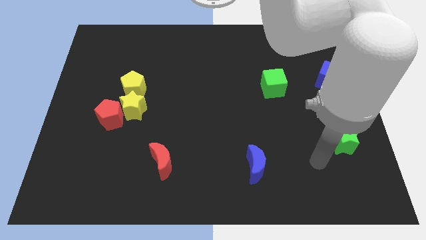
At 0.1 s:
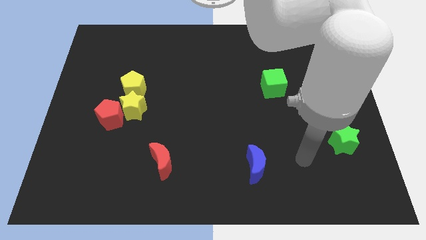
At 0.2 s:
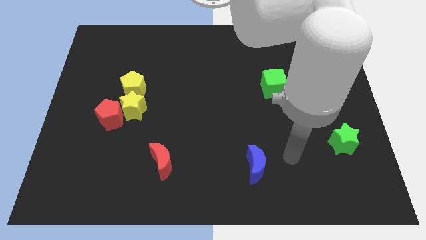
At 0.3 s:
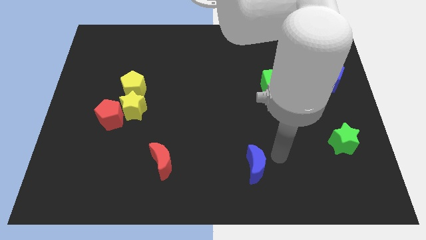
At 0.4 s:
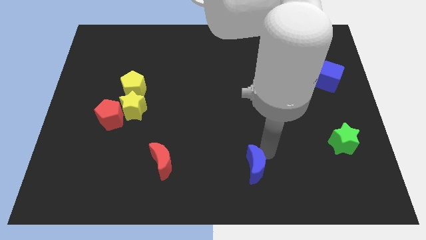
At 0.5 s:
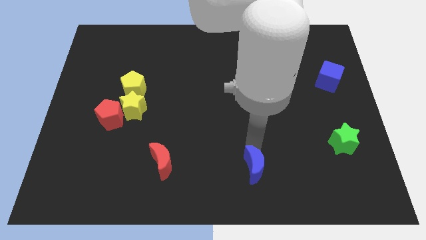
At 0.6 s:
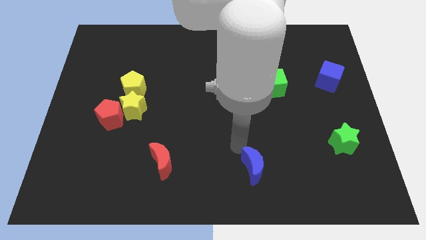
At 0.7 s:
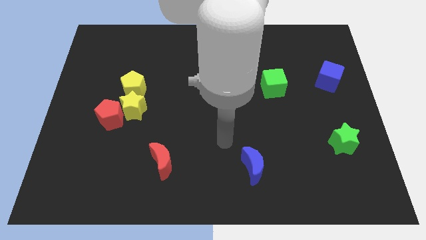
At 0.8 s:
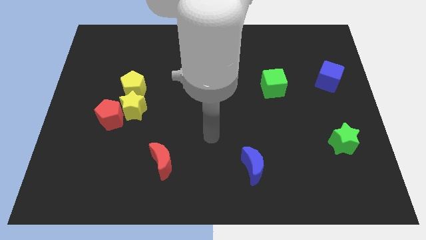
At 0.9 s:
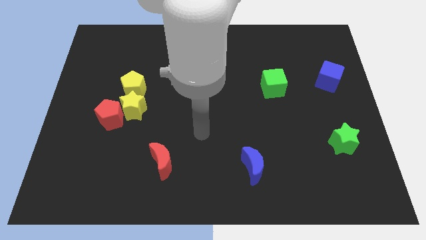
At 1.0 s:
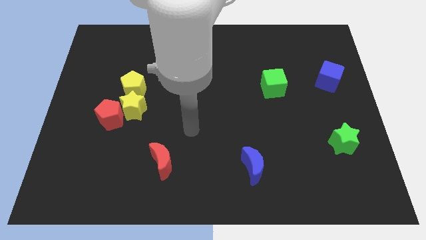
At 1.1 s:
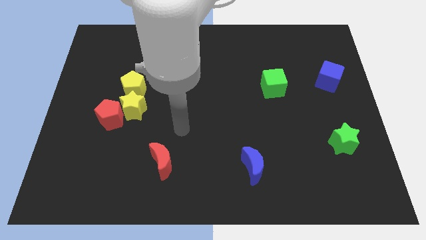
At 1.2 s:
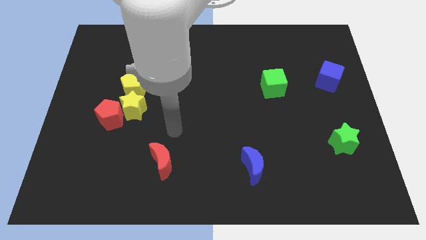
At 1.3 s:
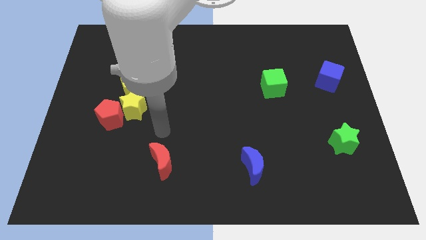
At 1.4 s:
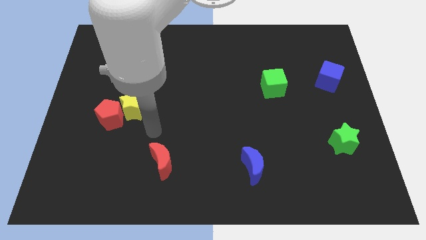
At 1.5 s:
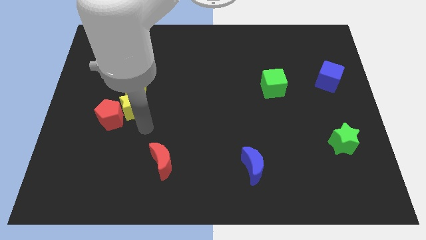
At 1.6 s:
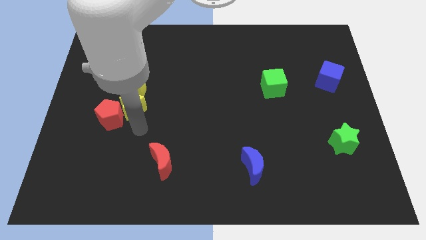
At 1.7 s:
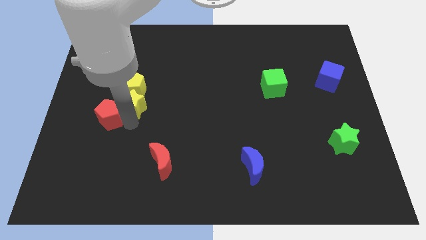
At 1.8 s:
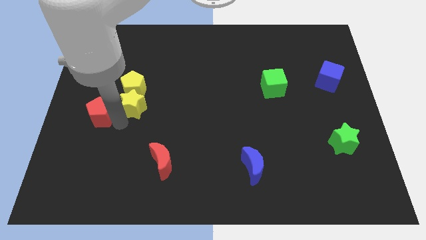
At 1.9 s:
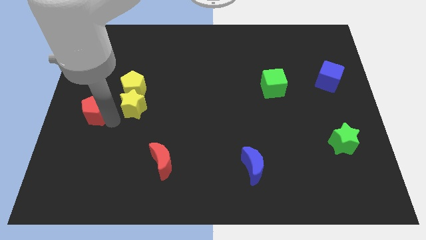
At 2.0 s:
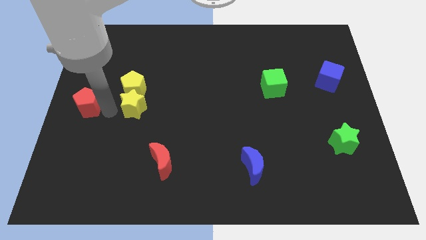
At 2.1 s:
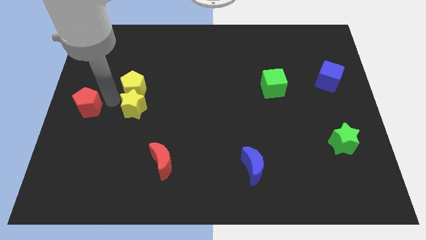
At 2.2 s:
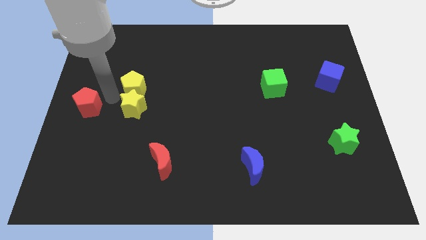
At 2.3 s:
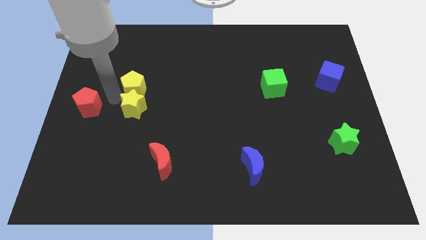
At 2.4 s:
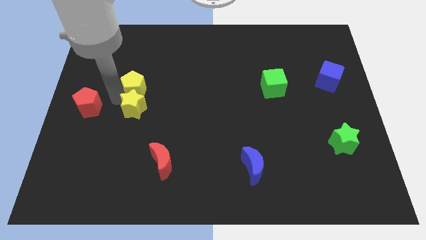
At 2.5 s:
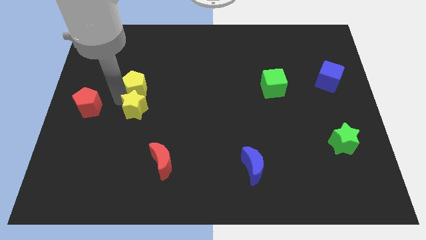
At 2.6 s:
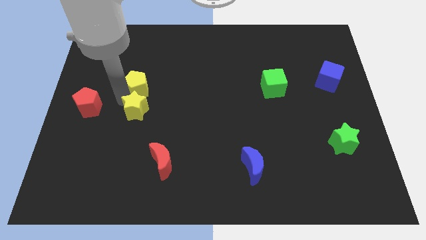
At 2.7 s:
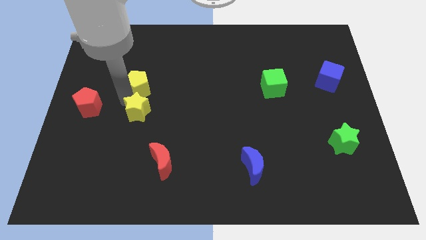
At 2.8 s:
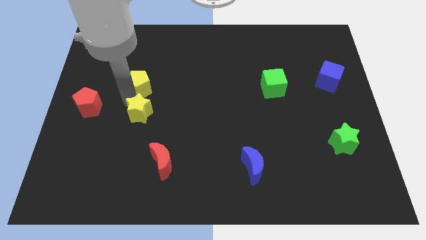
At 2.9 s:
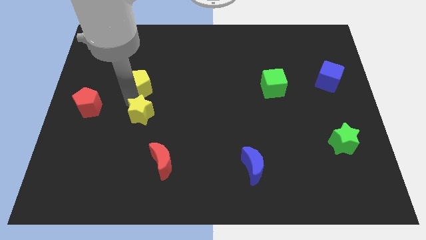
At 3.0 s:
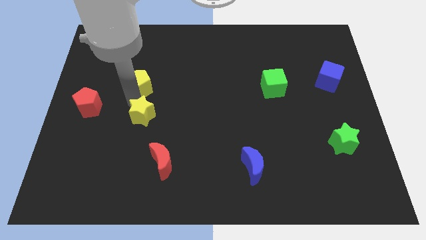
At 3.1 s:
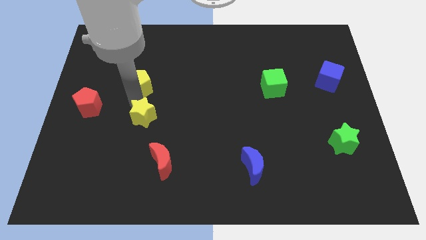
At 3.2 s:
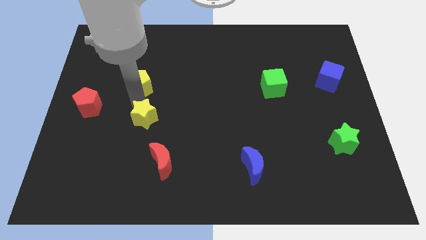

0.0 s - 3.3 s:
pull the yellow star apart from the red pentagon and yellow pentagon

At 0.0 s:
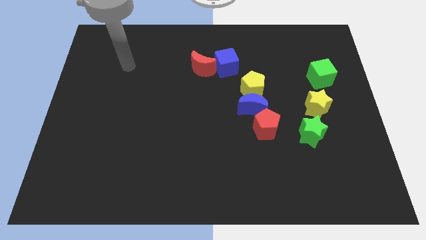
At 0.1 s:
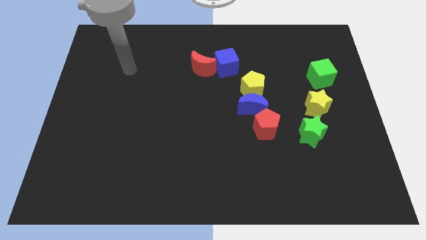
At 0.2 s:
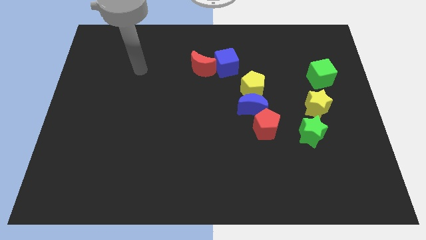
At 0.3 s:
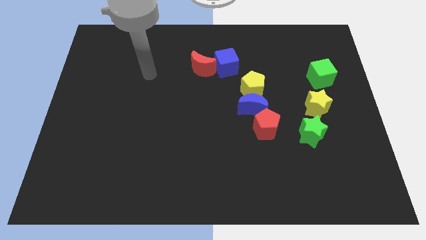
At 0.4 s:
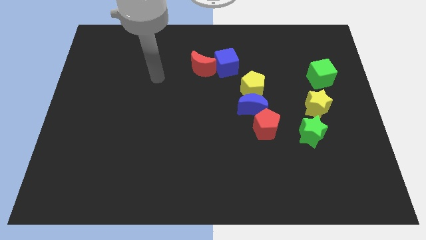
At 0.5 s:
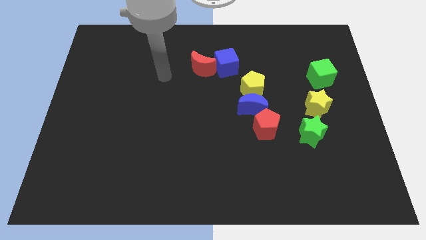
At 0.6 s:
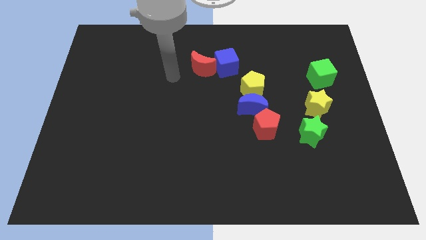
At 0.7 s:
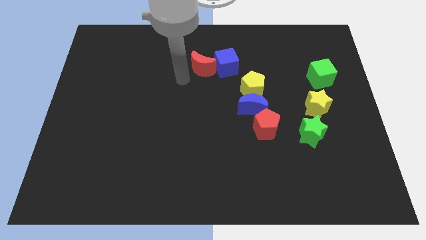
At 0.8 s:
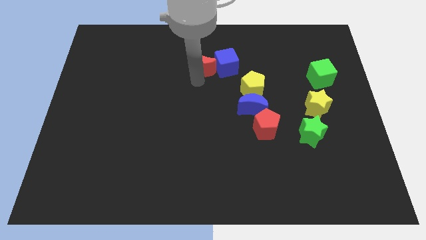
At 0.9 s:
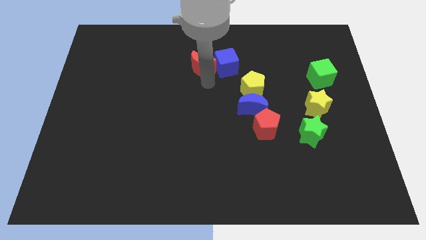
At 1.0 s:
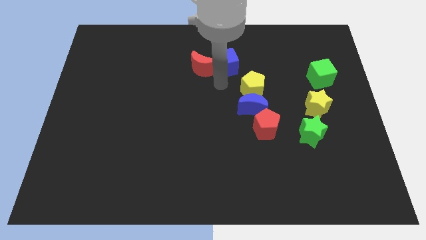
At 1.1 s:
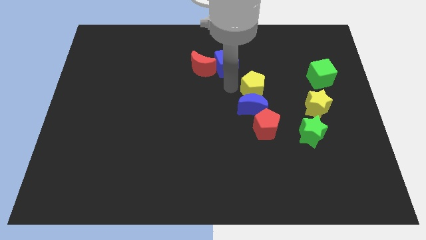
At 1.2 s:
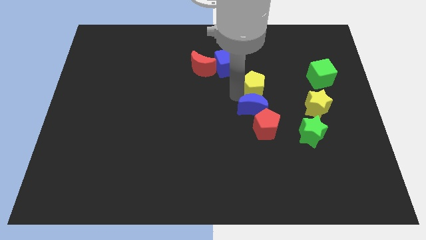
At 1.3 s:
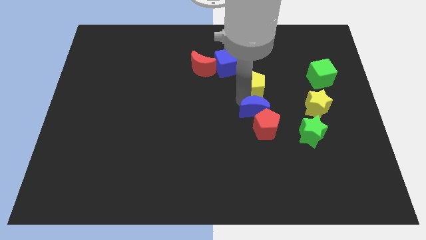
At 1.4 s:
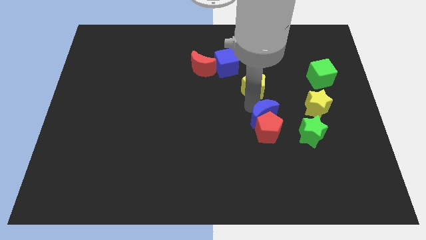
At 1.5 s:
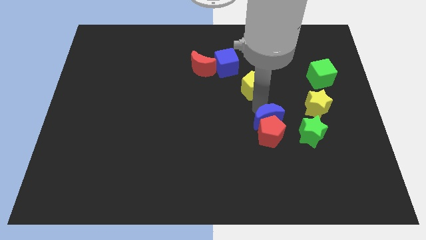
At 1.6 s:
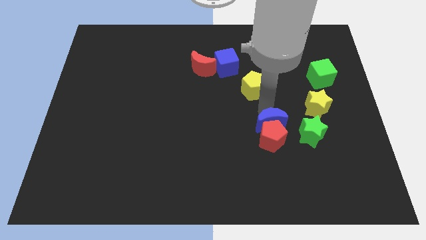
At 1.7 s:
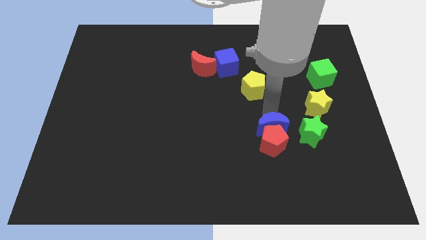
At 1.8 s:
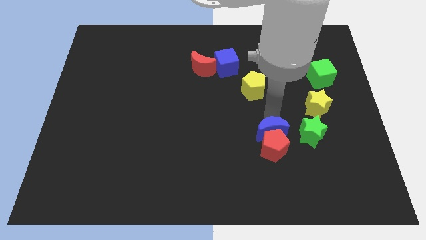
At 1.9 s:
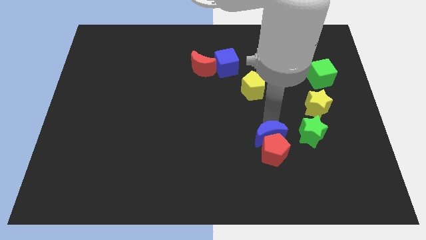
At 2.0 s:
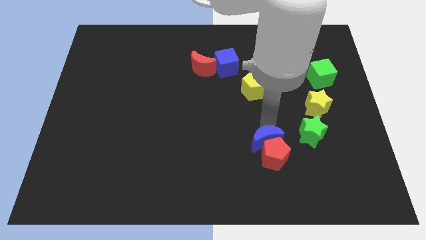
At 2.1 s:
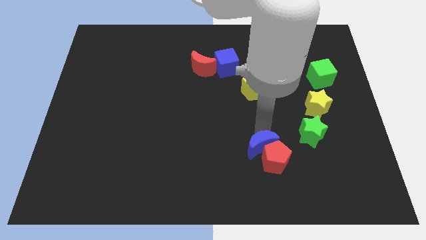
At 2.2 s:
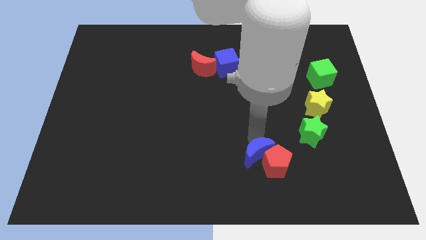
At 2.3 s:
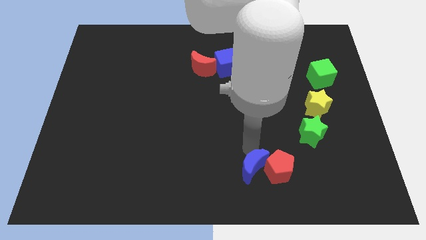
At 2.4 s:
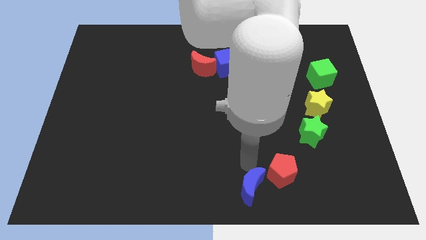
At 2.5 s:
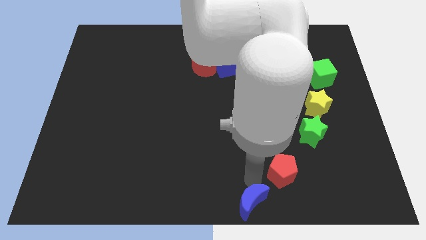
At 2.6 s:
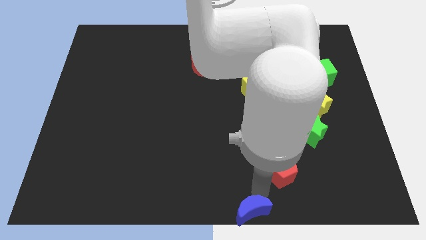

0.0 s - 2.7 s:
pull the red pentagon apart from the blue moon

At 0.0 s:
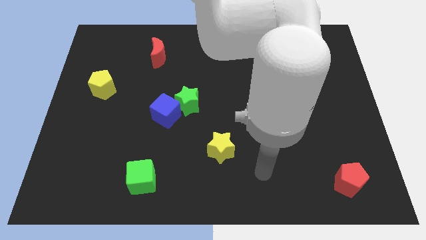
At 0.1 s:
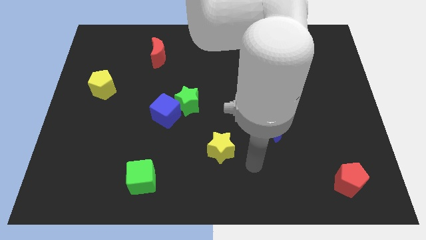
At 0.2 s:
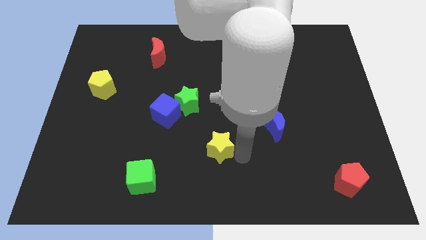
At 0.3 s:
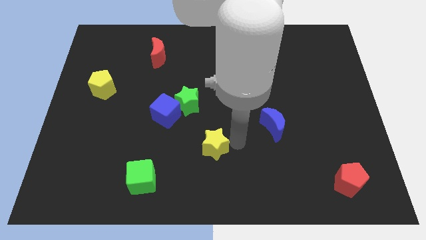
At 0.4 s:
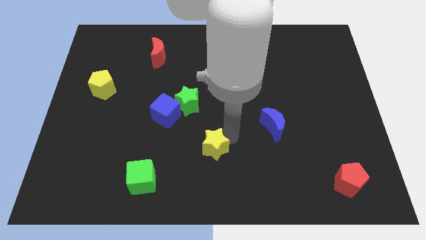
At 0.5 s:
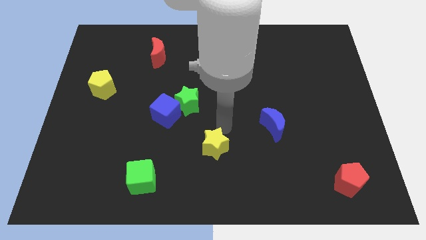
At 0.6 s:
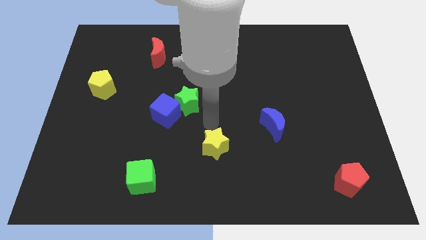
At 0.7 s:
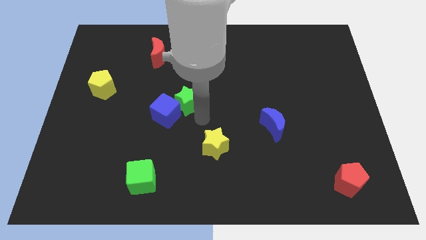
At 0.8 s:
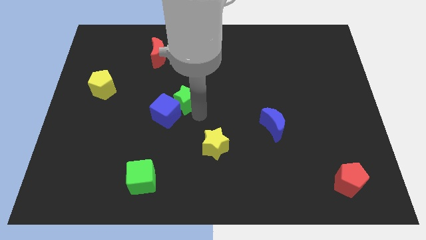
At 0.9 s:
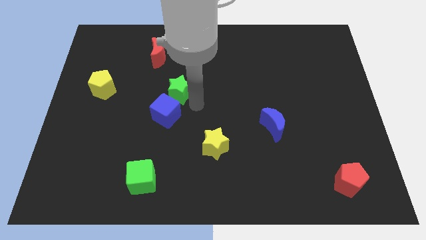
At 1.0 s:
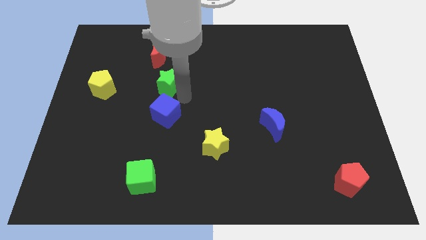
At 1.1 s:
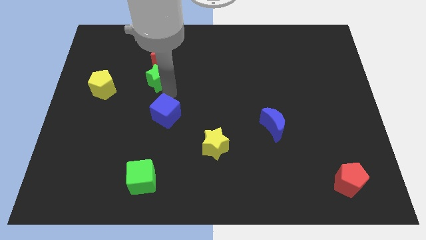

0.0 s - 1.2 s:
pull the blue cube apart from the green star

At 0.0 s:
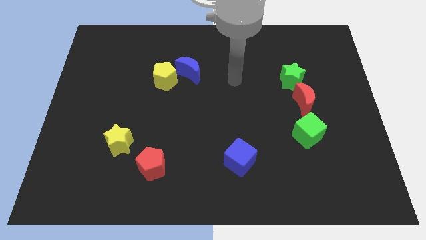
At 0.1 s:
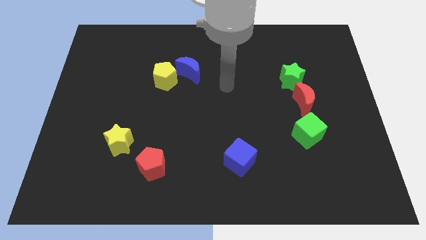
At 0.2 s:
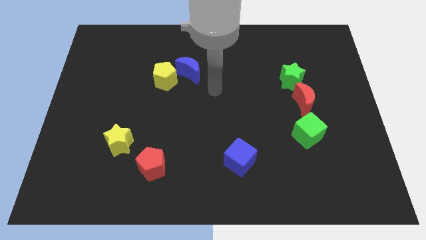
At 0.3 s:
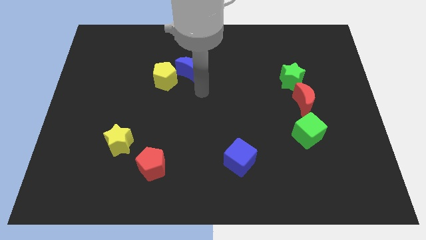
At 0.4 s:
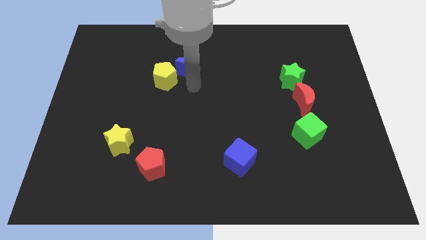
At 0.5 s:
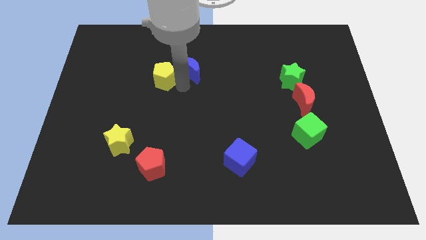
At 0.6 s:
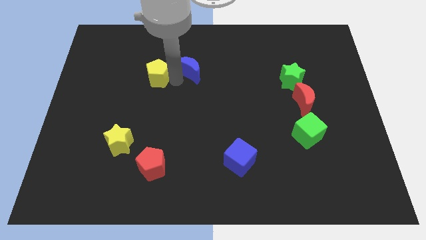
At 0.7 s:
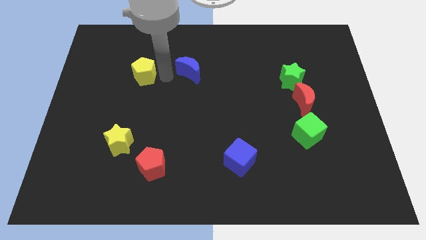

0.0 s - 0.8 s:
move the blue moon away from the yellow pentagon

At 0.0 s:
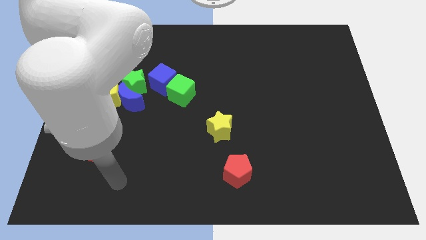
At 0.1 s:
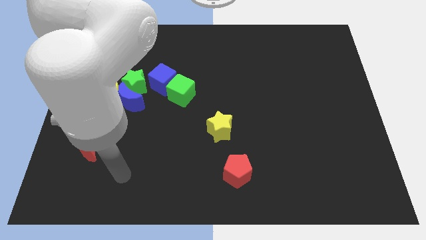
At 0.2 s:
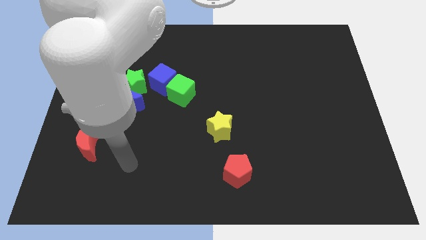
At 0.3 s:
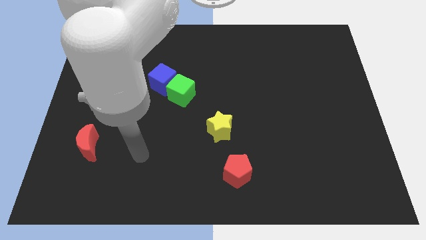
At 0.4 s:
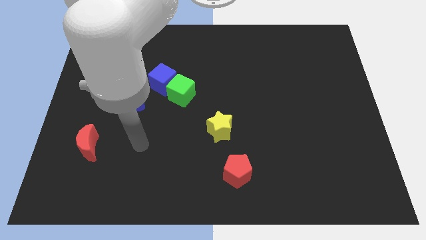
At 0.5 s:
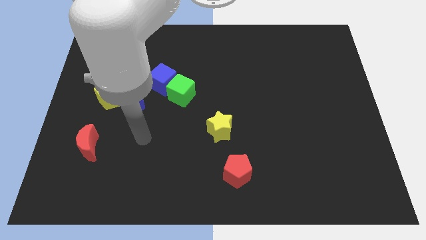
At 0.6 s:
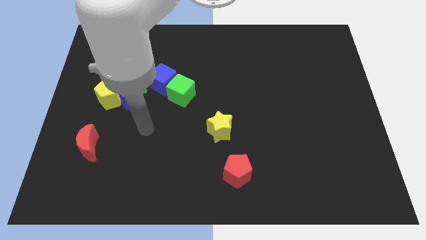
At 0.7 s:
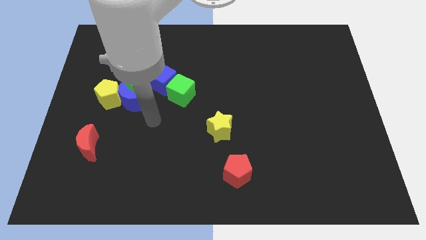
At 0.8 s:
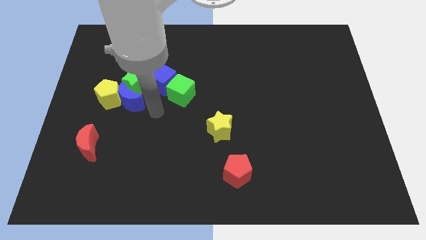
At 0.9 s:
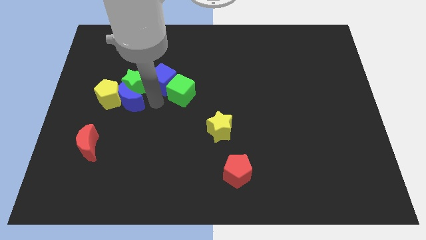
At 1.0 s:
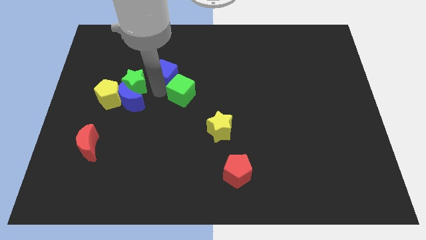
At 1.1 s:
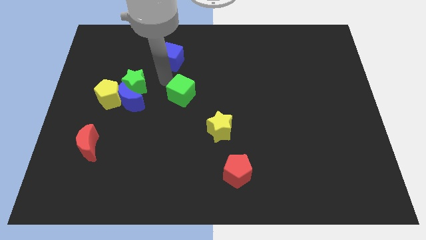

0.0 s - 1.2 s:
pull the green cube apart from the blue cube

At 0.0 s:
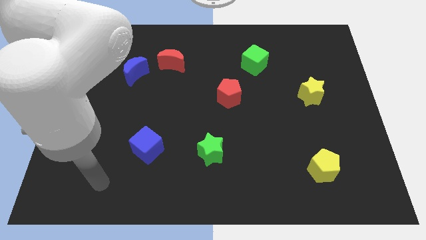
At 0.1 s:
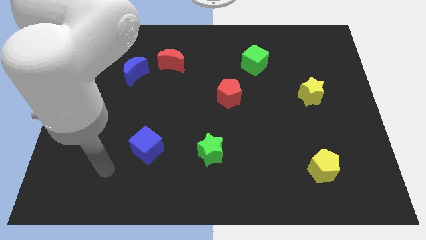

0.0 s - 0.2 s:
pull the red moon apart from the blue moon
